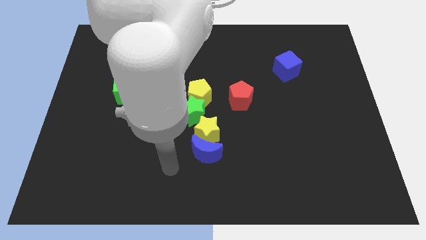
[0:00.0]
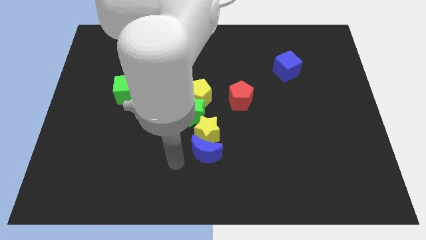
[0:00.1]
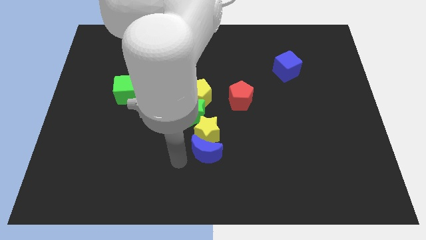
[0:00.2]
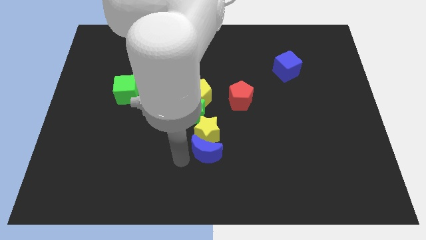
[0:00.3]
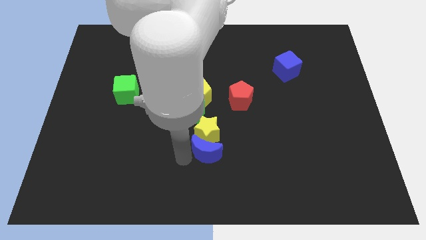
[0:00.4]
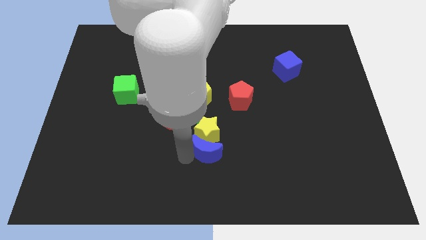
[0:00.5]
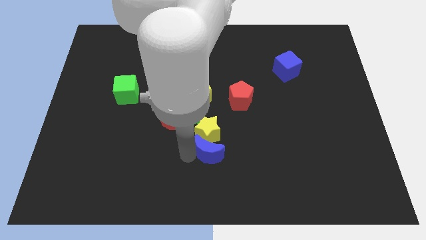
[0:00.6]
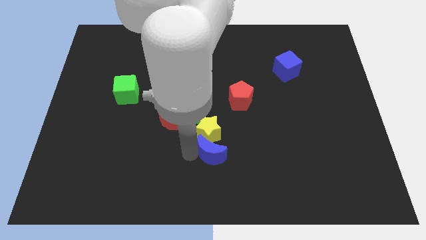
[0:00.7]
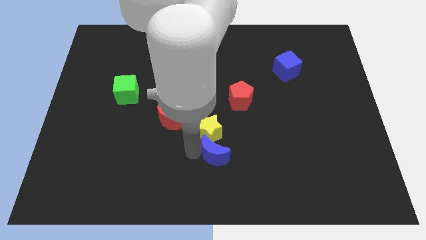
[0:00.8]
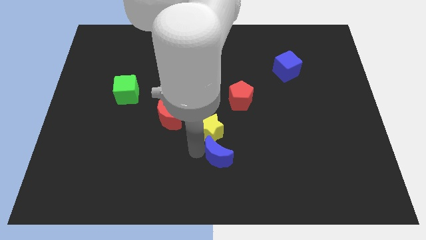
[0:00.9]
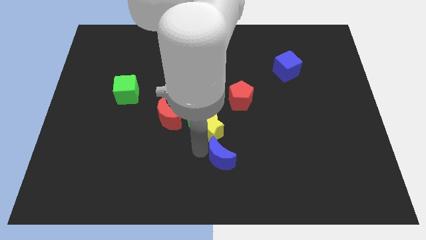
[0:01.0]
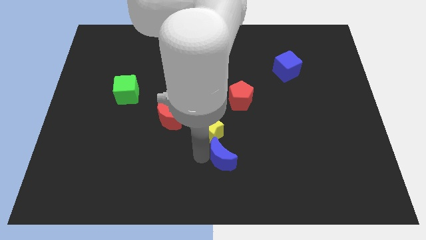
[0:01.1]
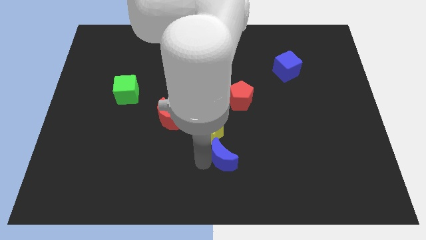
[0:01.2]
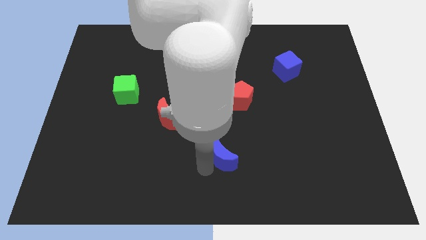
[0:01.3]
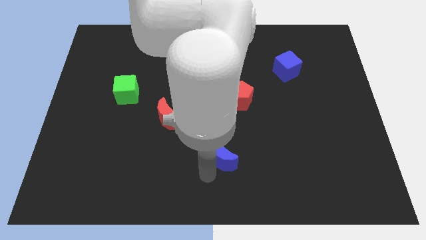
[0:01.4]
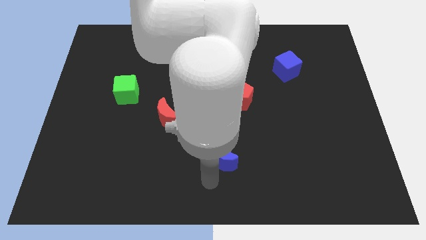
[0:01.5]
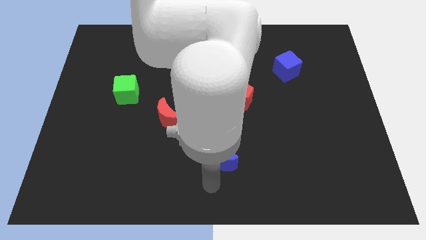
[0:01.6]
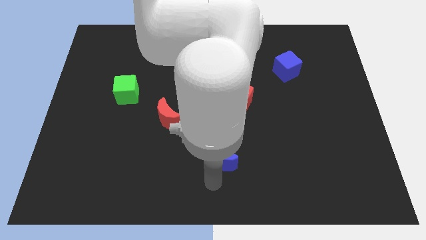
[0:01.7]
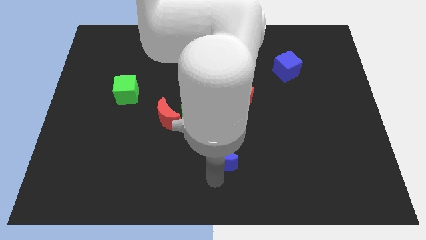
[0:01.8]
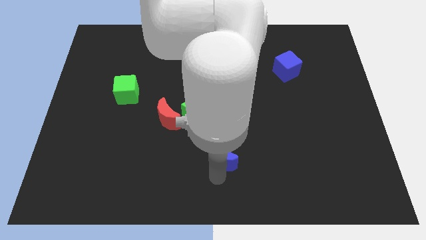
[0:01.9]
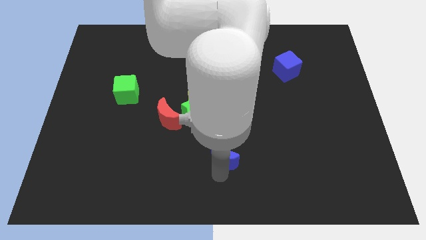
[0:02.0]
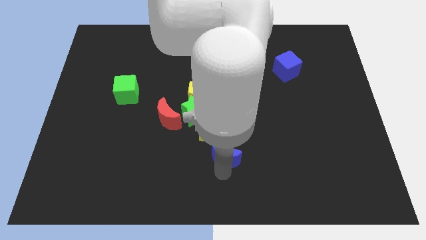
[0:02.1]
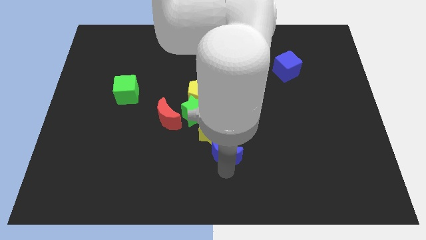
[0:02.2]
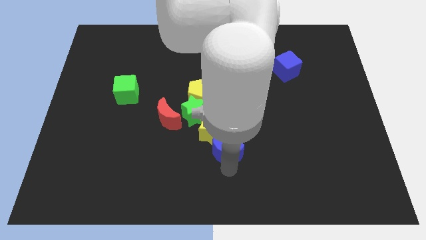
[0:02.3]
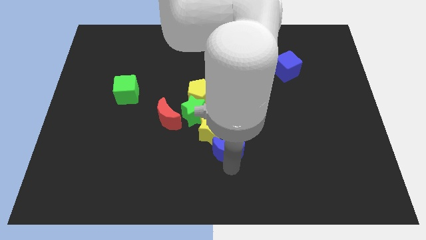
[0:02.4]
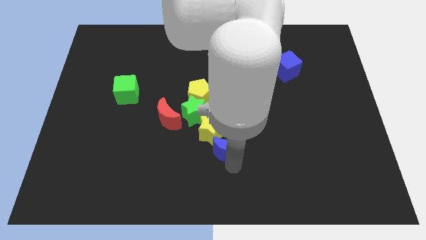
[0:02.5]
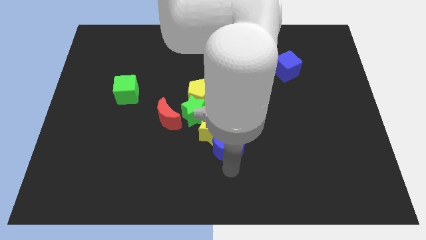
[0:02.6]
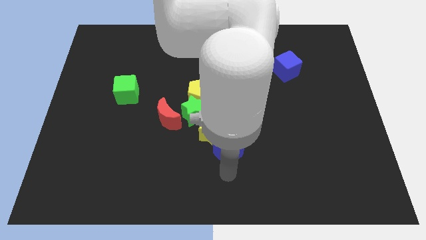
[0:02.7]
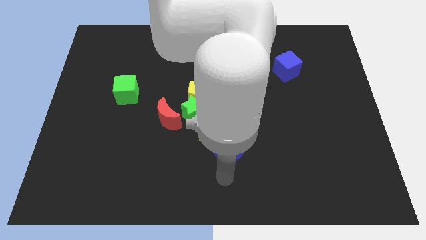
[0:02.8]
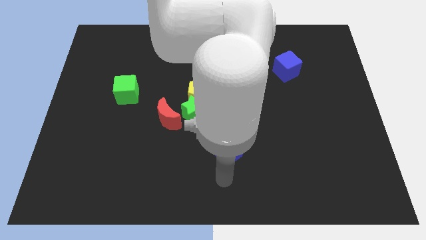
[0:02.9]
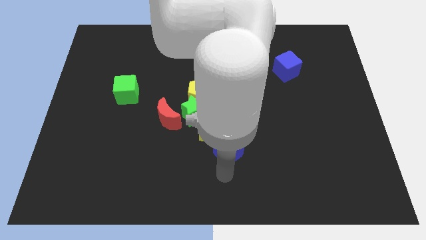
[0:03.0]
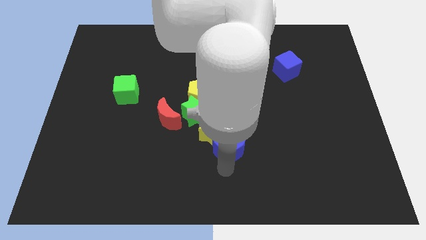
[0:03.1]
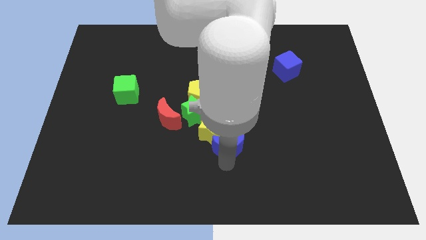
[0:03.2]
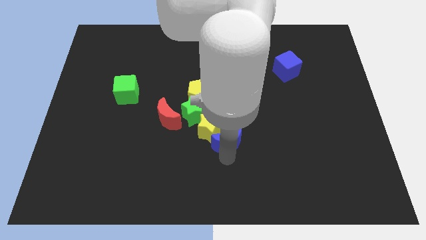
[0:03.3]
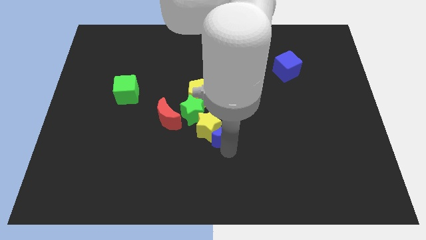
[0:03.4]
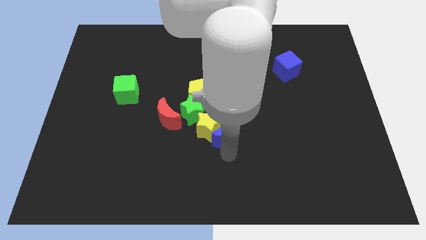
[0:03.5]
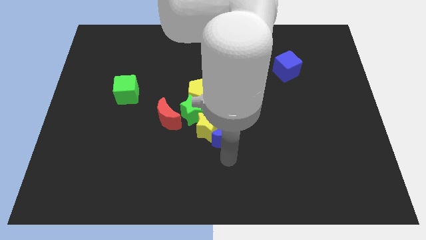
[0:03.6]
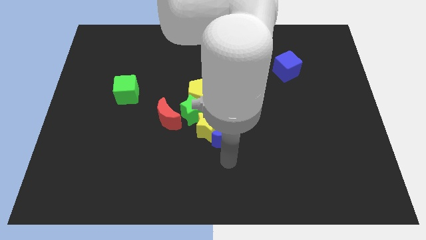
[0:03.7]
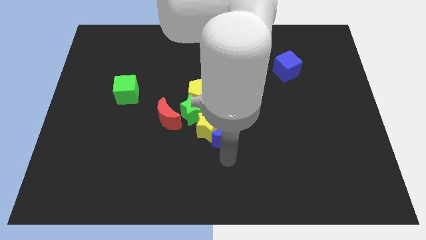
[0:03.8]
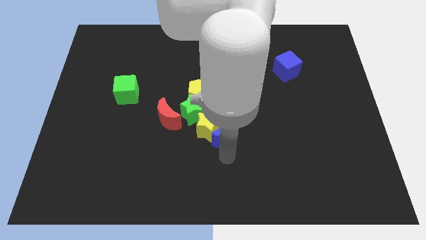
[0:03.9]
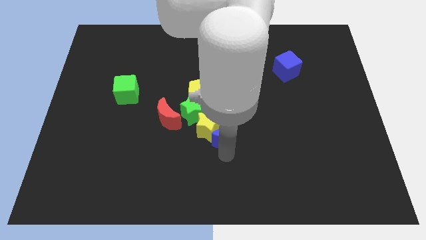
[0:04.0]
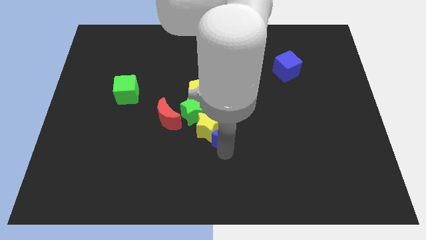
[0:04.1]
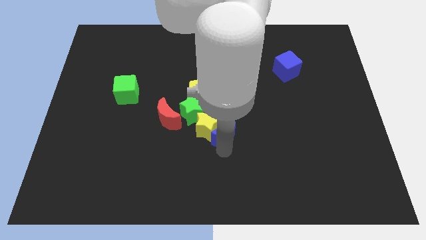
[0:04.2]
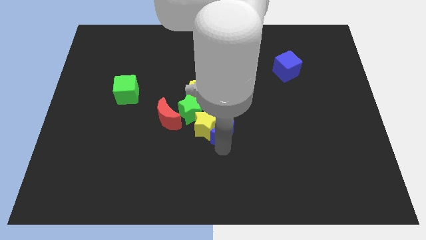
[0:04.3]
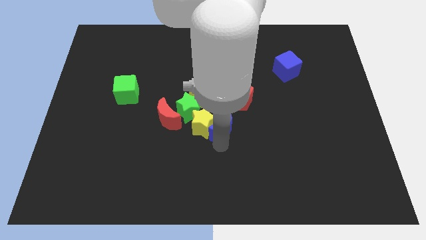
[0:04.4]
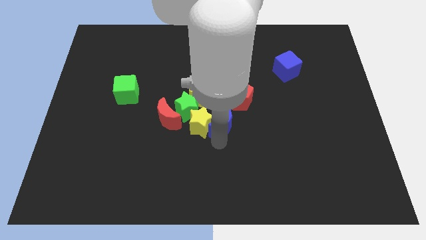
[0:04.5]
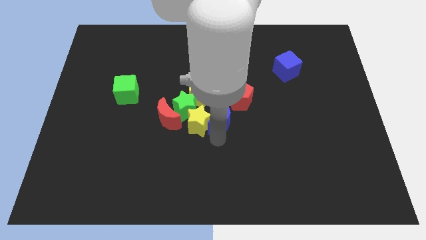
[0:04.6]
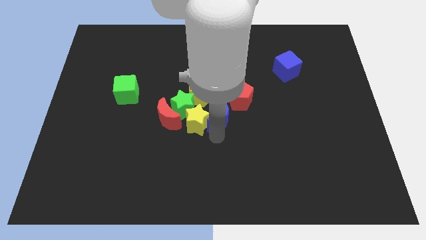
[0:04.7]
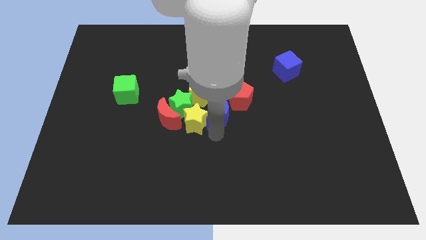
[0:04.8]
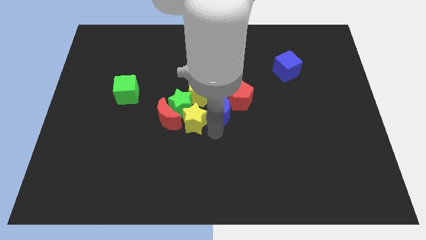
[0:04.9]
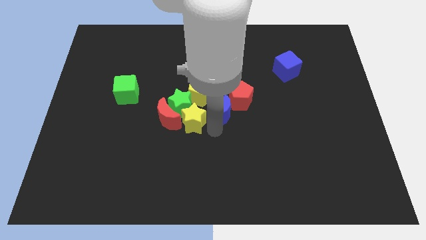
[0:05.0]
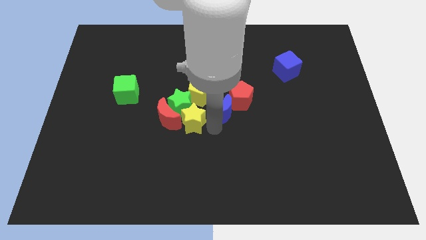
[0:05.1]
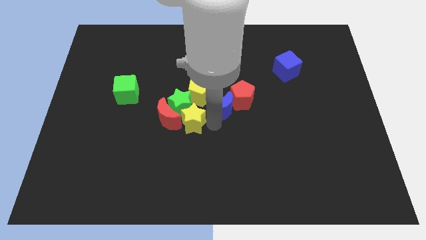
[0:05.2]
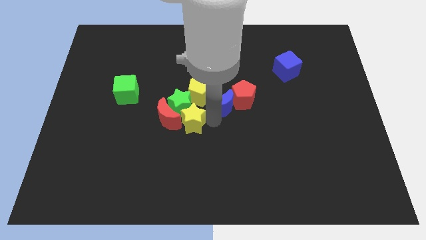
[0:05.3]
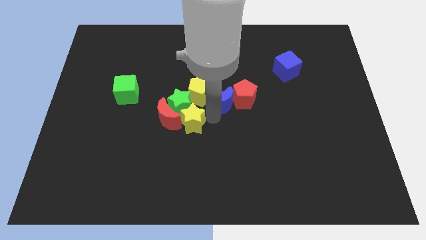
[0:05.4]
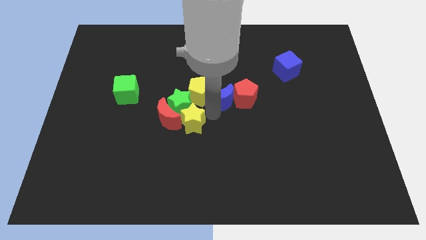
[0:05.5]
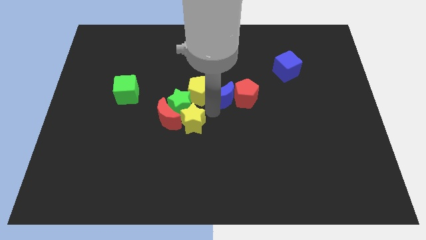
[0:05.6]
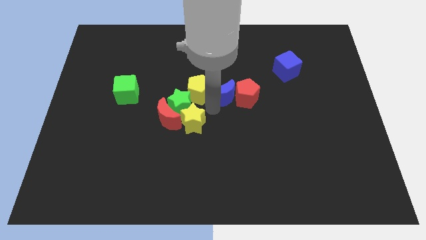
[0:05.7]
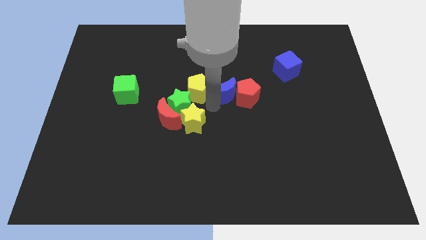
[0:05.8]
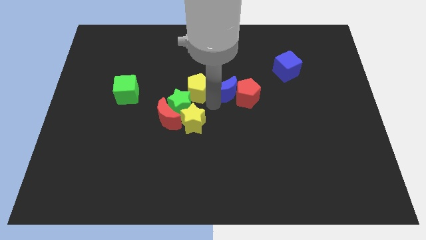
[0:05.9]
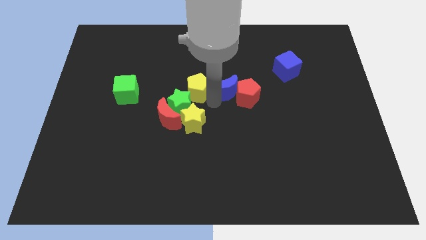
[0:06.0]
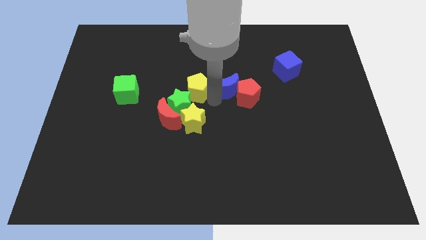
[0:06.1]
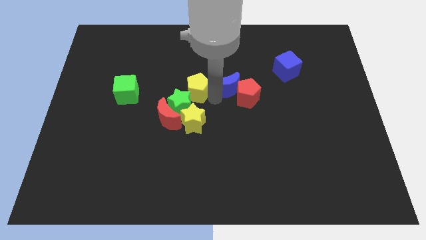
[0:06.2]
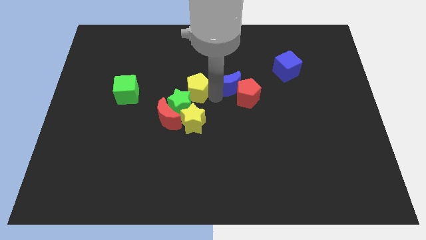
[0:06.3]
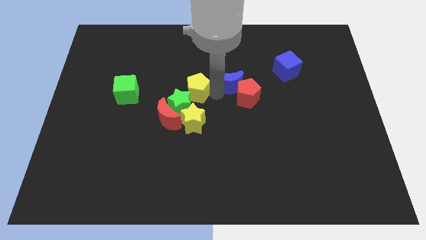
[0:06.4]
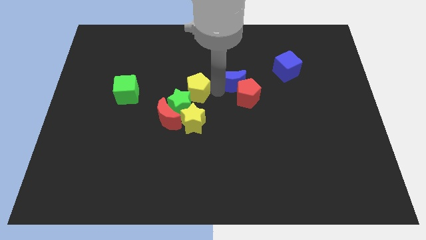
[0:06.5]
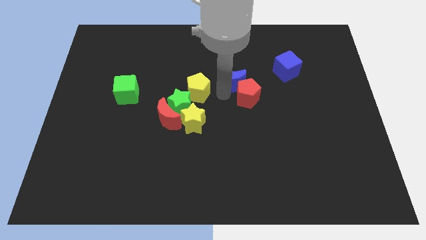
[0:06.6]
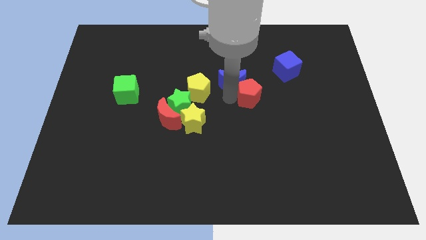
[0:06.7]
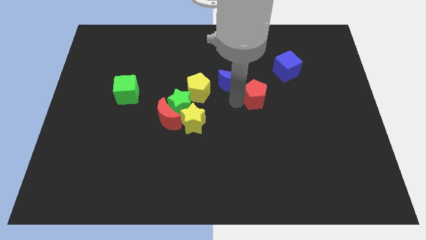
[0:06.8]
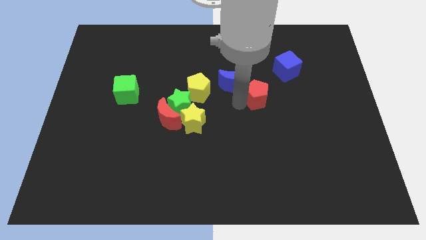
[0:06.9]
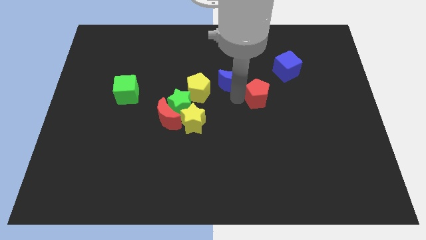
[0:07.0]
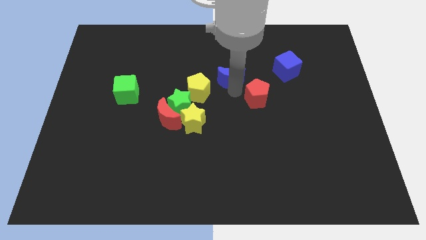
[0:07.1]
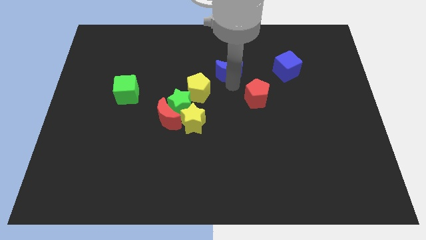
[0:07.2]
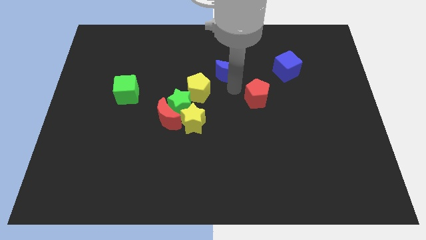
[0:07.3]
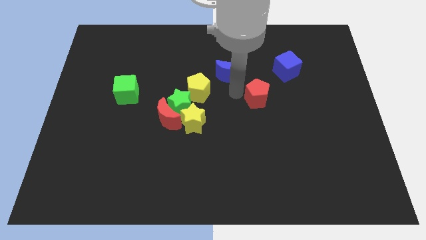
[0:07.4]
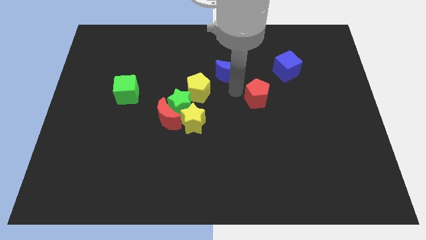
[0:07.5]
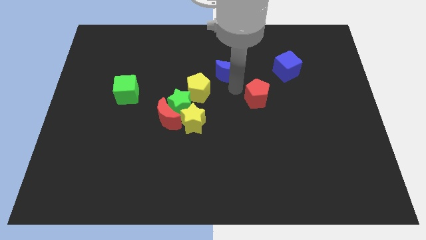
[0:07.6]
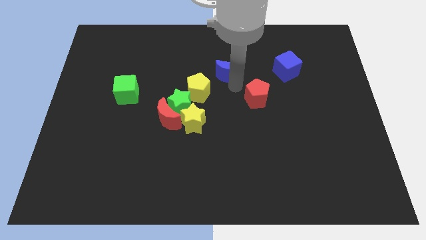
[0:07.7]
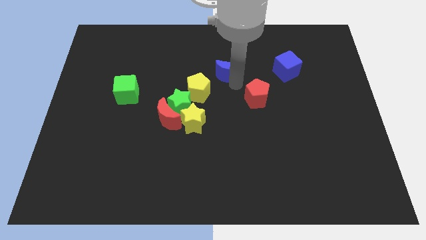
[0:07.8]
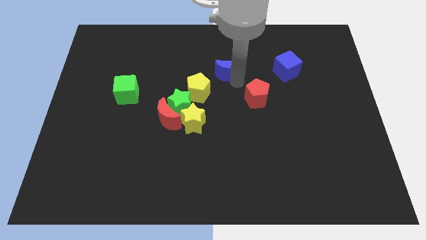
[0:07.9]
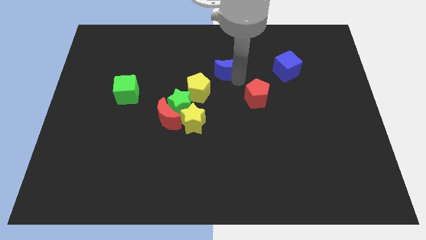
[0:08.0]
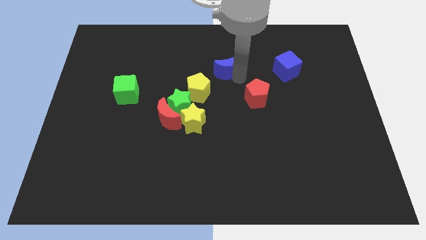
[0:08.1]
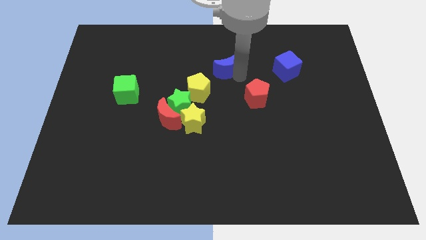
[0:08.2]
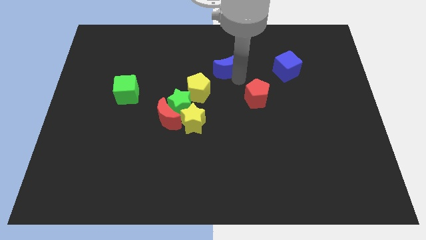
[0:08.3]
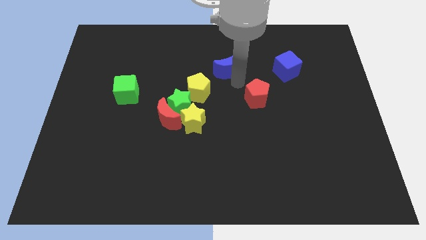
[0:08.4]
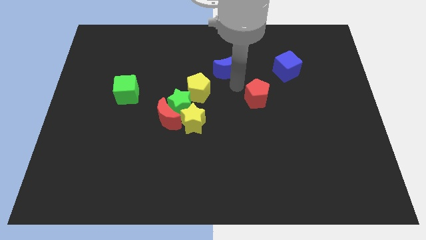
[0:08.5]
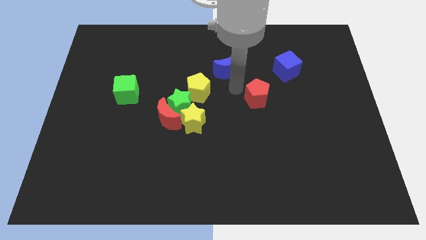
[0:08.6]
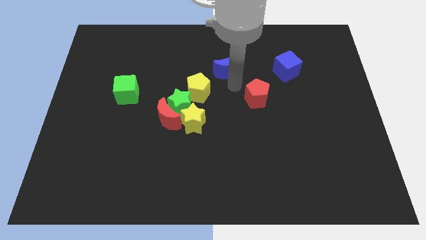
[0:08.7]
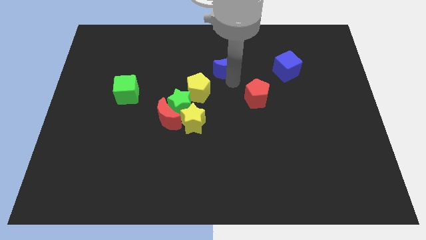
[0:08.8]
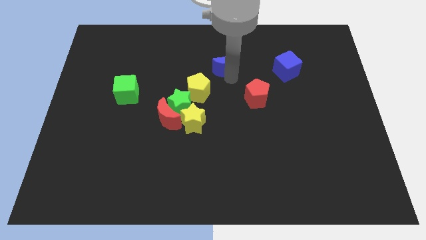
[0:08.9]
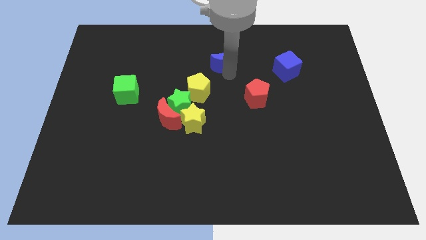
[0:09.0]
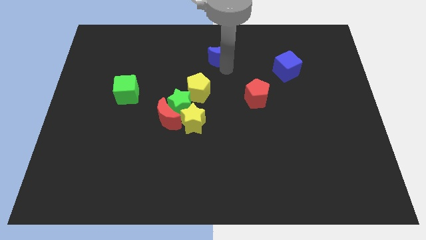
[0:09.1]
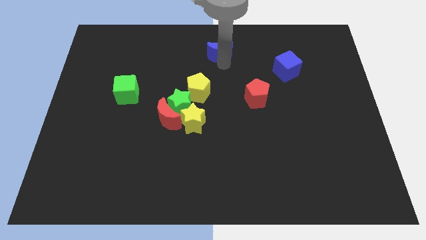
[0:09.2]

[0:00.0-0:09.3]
put the blue moon to the top side
